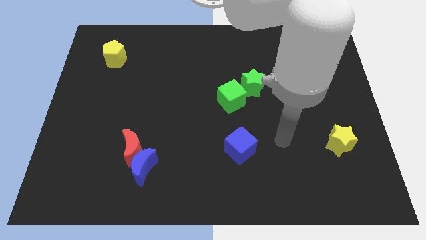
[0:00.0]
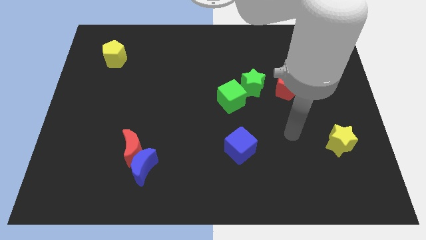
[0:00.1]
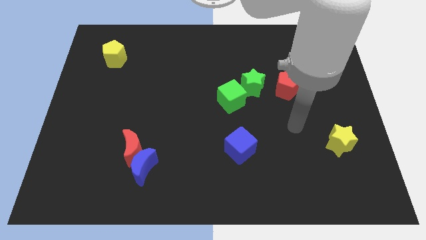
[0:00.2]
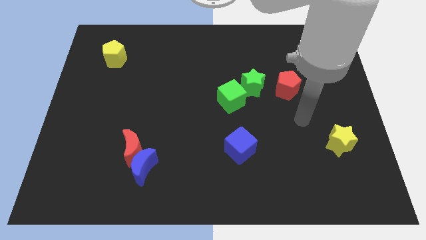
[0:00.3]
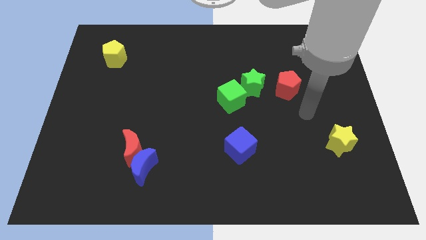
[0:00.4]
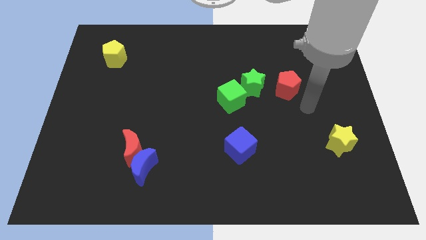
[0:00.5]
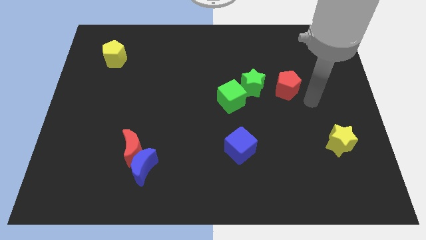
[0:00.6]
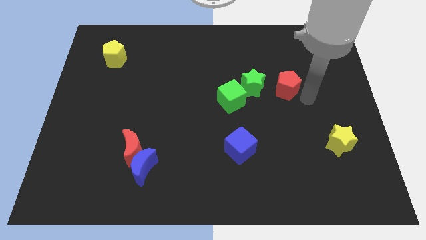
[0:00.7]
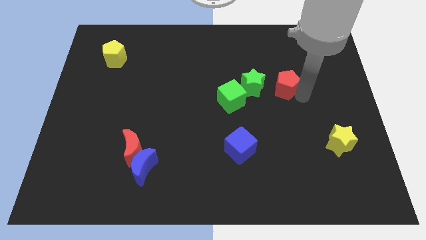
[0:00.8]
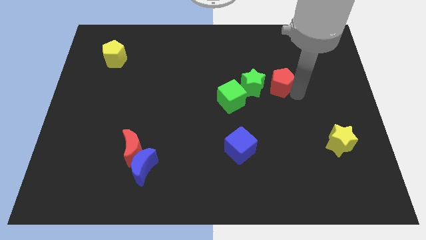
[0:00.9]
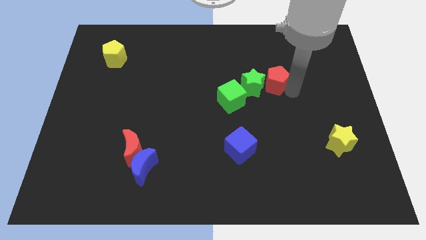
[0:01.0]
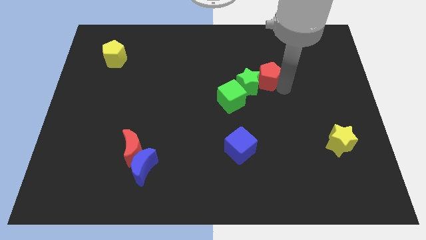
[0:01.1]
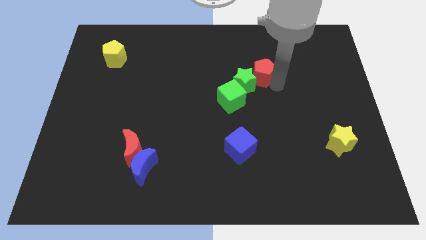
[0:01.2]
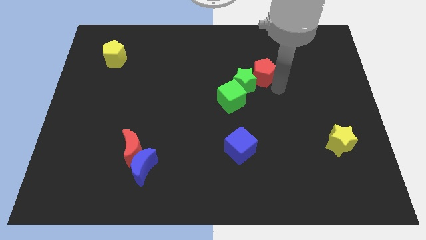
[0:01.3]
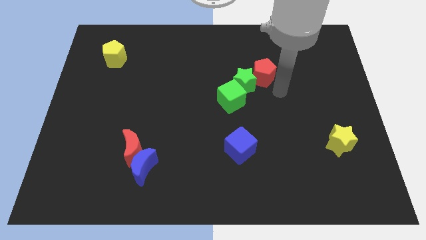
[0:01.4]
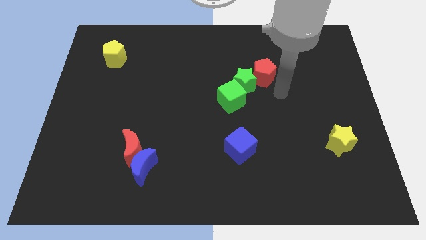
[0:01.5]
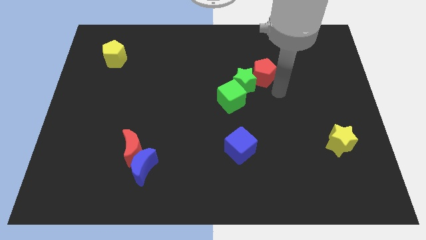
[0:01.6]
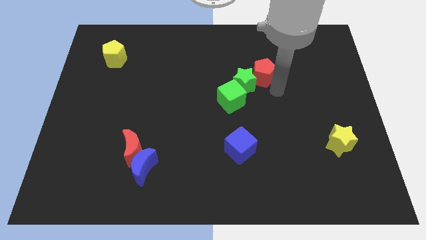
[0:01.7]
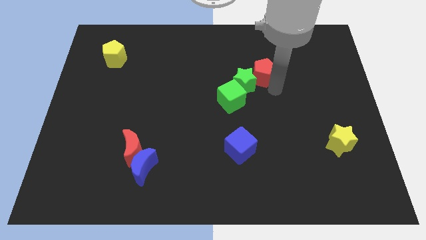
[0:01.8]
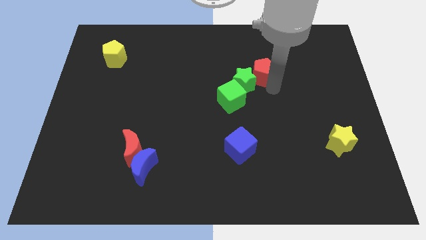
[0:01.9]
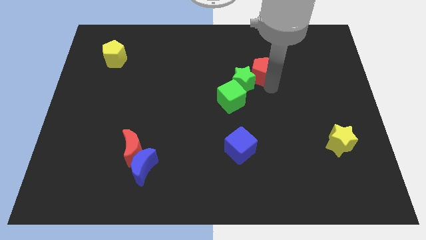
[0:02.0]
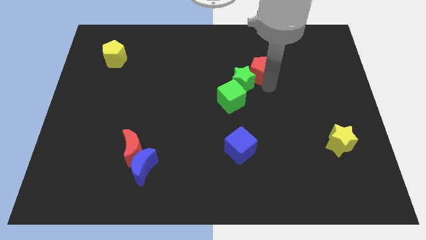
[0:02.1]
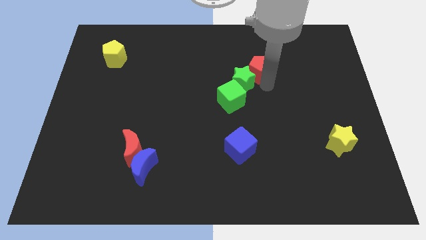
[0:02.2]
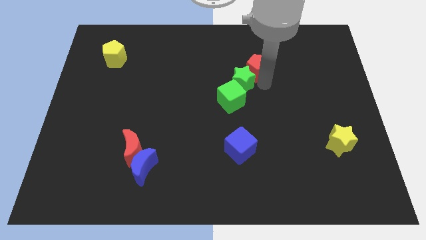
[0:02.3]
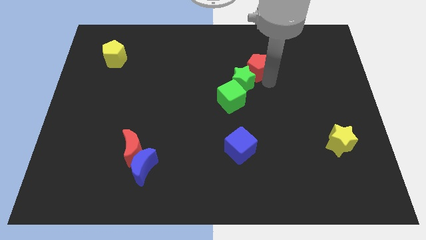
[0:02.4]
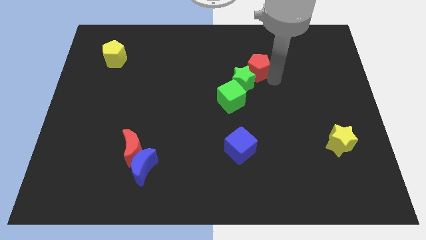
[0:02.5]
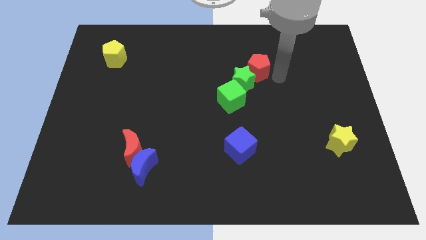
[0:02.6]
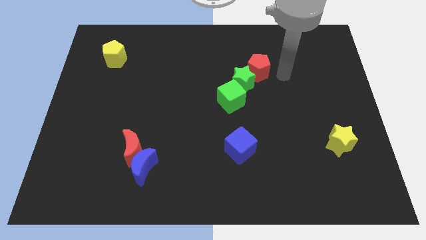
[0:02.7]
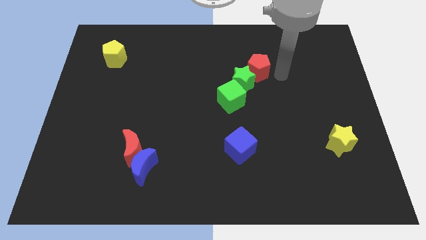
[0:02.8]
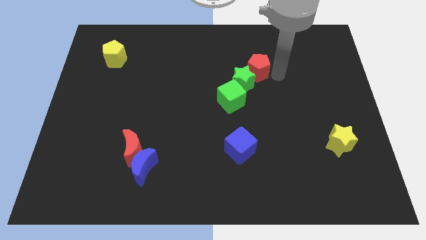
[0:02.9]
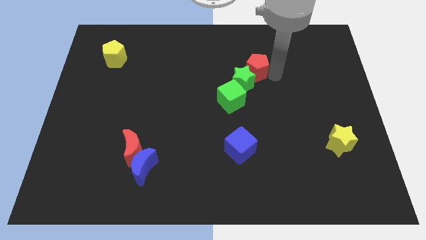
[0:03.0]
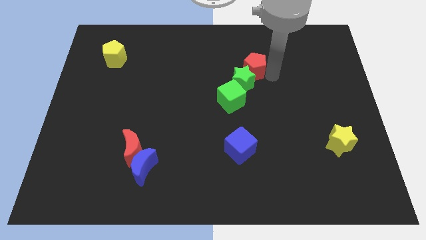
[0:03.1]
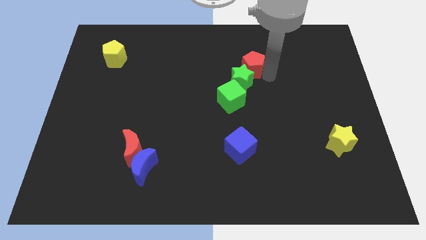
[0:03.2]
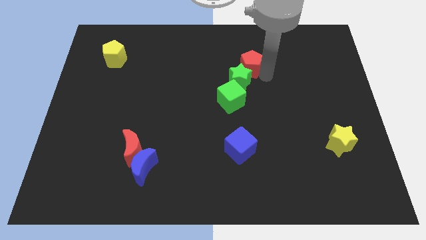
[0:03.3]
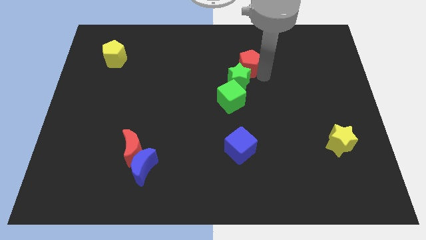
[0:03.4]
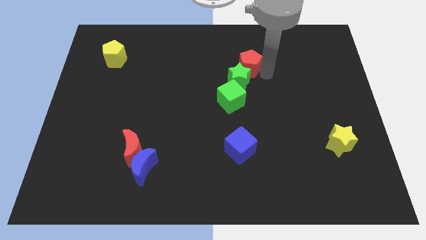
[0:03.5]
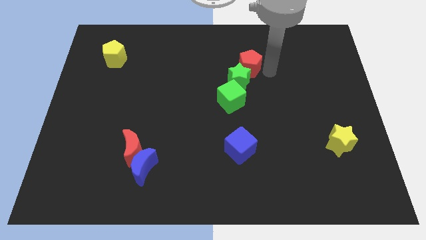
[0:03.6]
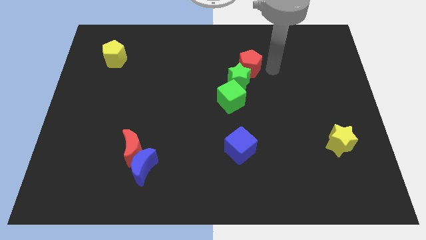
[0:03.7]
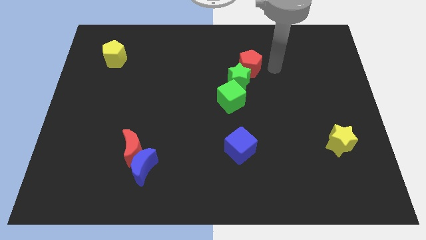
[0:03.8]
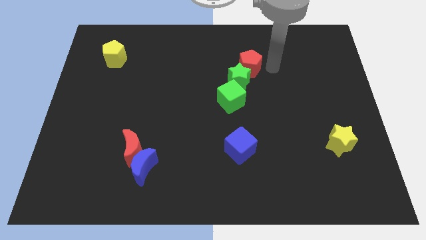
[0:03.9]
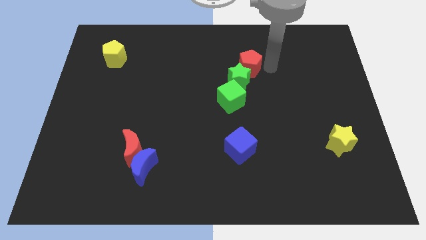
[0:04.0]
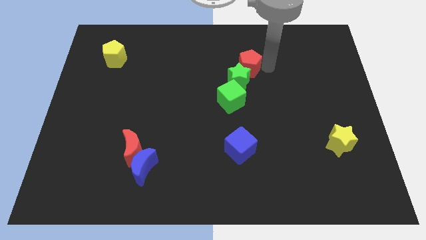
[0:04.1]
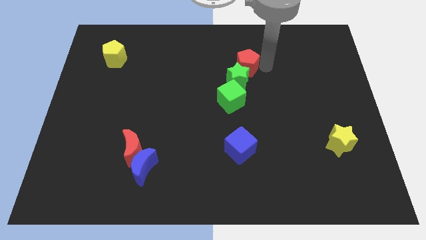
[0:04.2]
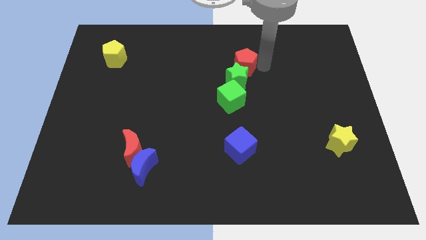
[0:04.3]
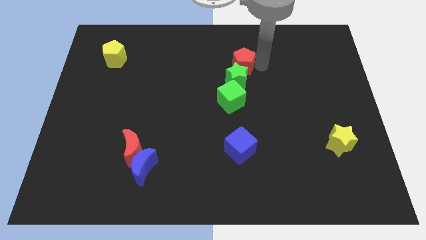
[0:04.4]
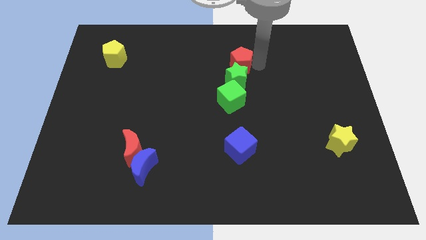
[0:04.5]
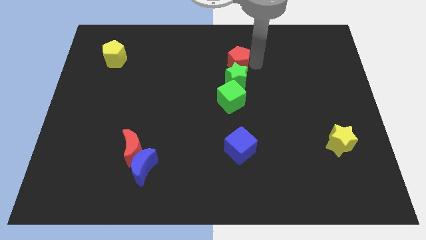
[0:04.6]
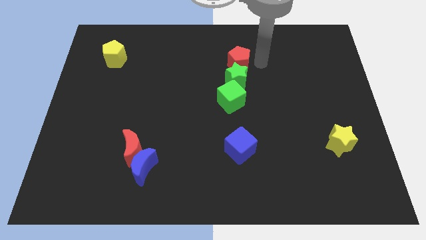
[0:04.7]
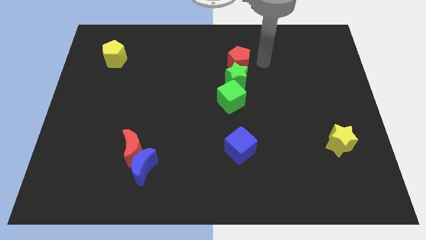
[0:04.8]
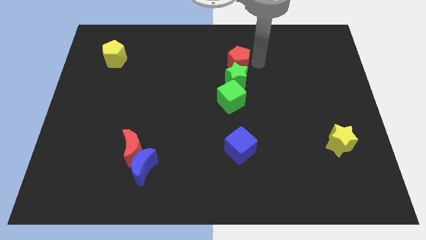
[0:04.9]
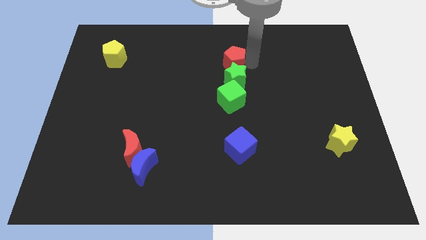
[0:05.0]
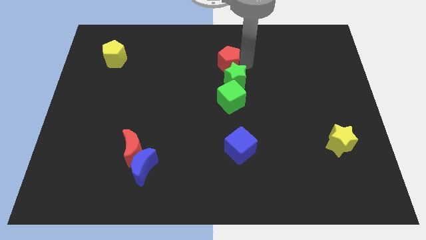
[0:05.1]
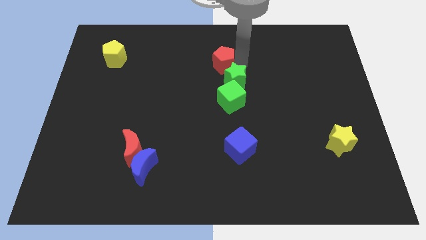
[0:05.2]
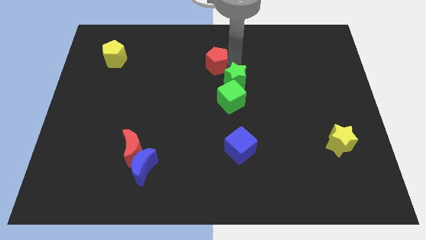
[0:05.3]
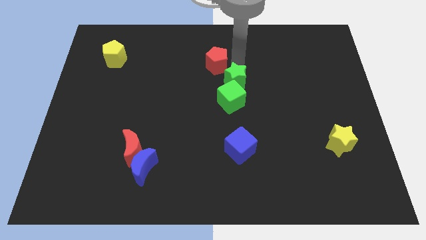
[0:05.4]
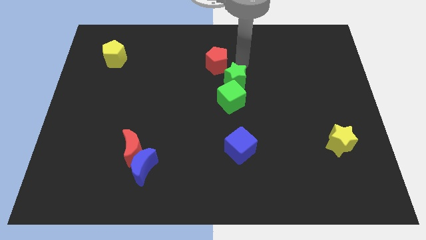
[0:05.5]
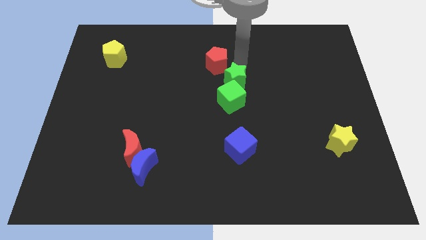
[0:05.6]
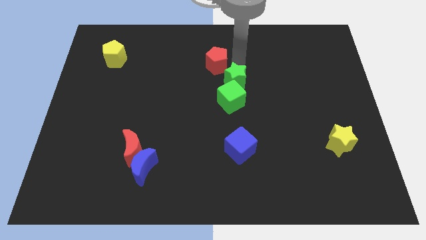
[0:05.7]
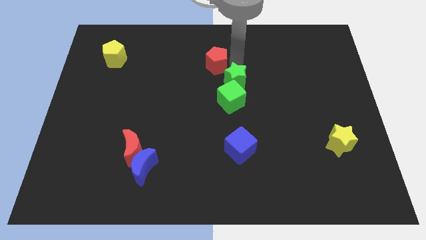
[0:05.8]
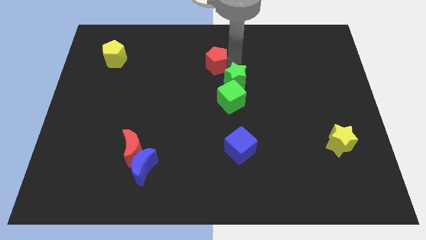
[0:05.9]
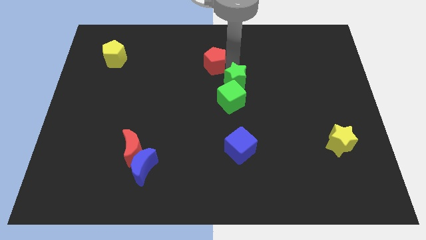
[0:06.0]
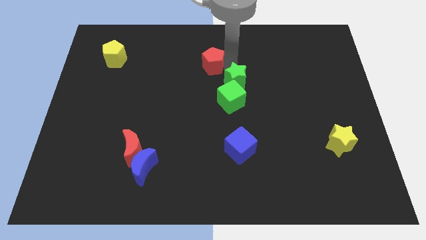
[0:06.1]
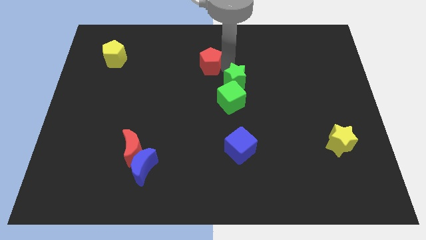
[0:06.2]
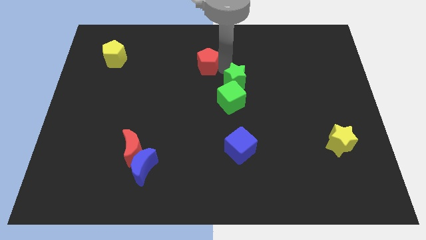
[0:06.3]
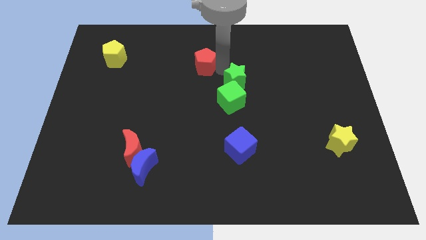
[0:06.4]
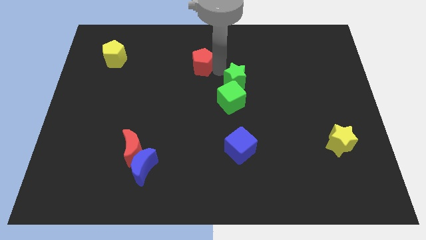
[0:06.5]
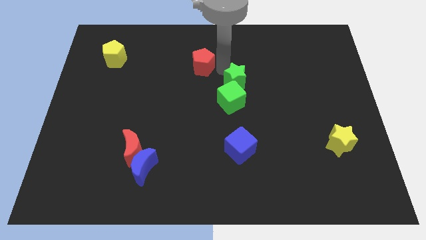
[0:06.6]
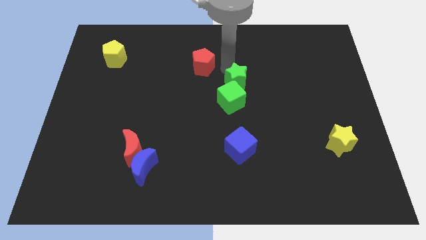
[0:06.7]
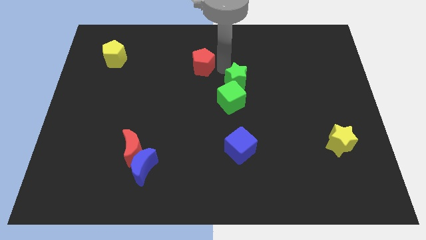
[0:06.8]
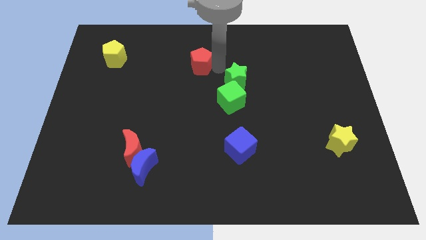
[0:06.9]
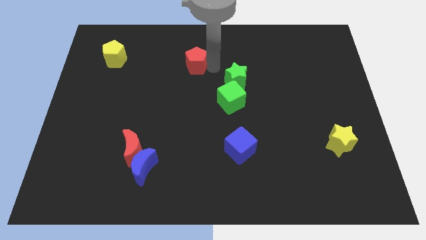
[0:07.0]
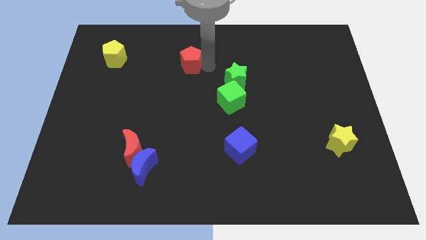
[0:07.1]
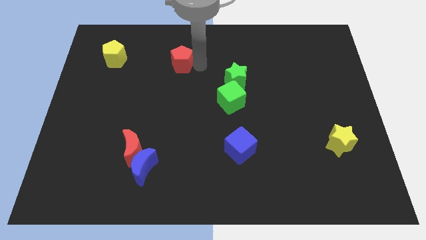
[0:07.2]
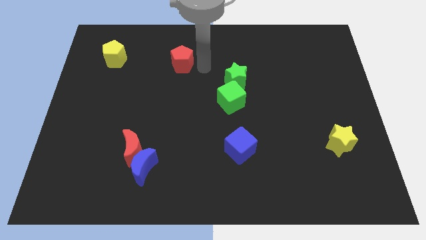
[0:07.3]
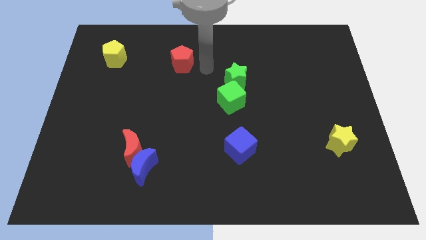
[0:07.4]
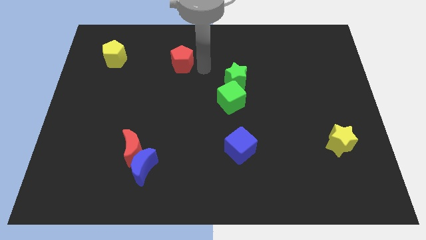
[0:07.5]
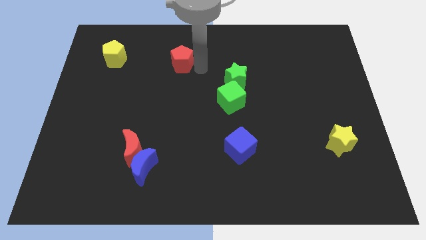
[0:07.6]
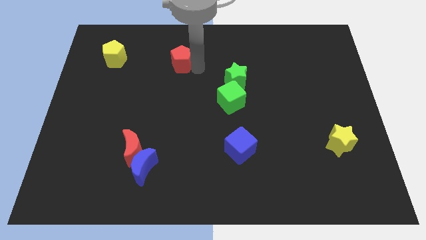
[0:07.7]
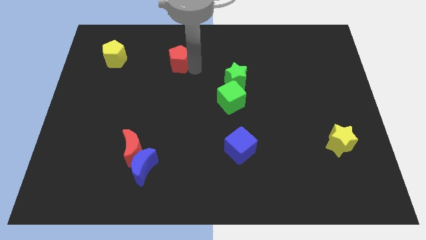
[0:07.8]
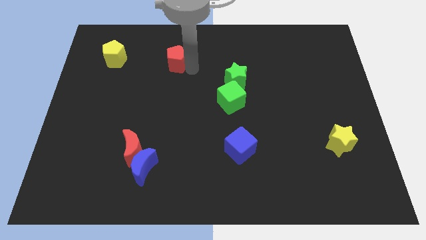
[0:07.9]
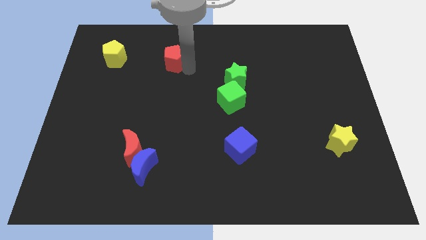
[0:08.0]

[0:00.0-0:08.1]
move the red pentagon just right of the yellow pentagon
